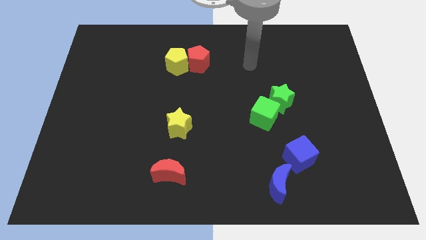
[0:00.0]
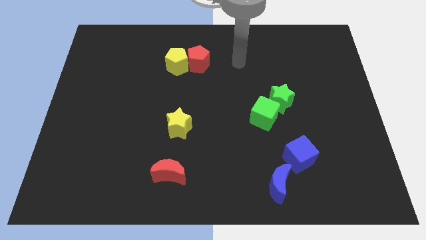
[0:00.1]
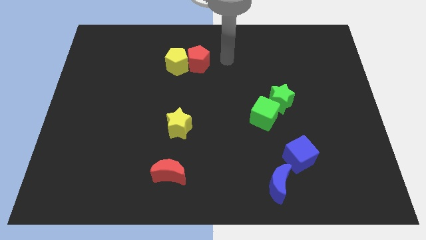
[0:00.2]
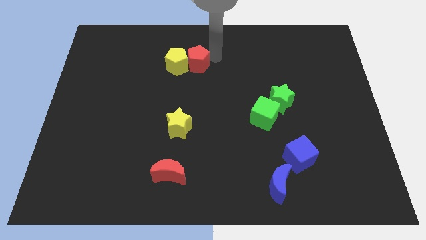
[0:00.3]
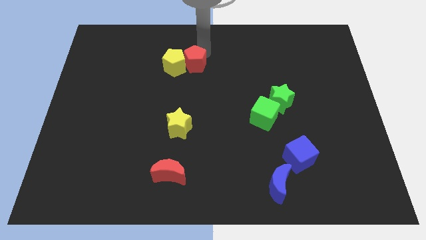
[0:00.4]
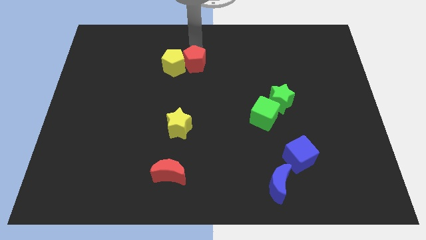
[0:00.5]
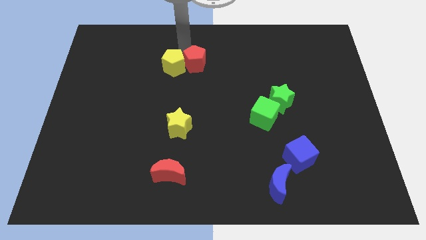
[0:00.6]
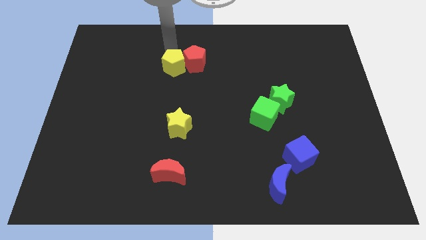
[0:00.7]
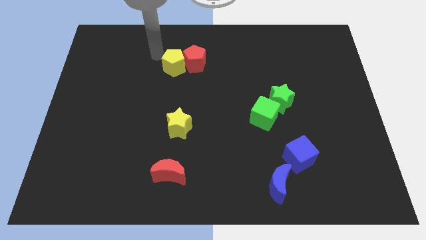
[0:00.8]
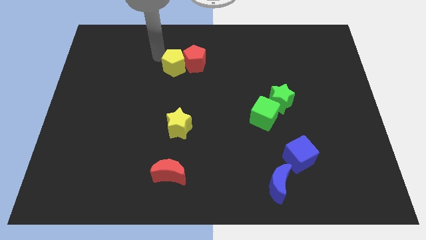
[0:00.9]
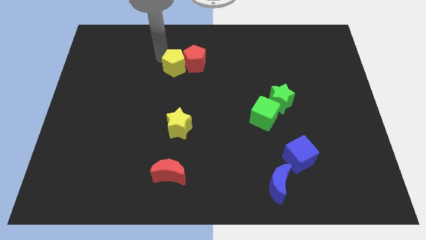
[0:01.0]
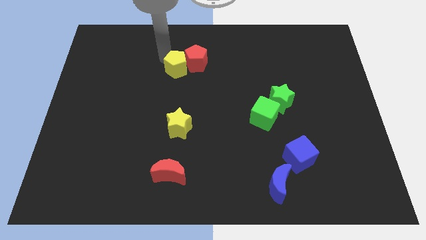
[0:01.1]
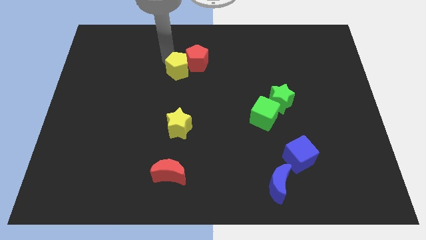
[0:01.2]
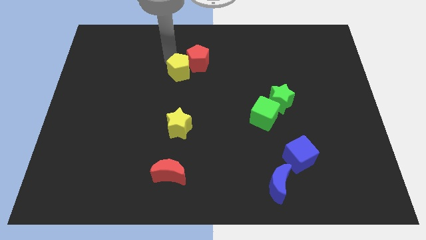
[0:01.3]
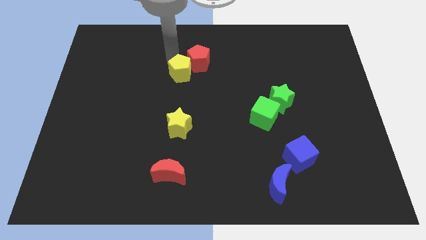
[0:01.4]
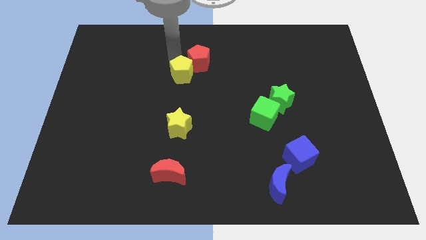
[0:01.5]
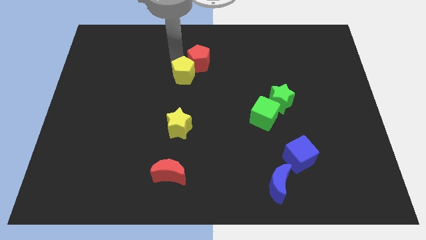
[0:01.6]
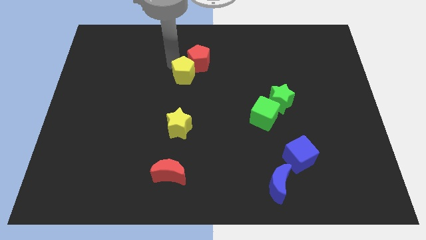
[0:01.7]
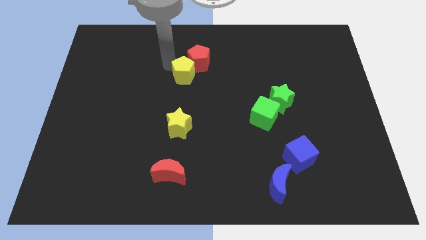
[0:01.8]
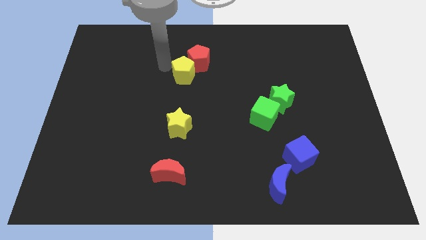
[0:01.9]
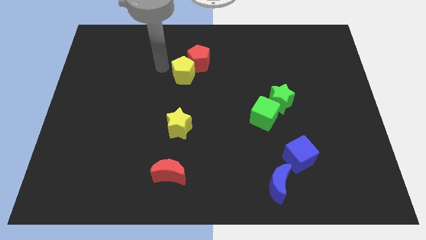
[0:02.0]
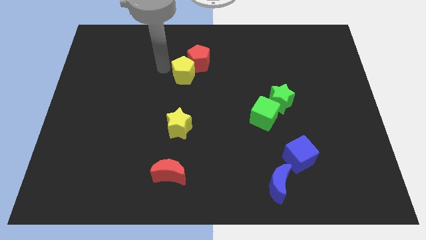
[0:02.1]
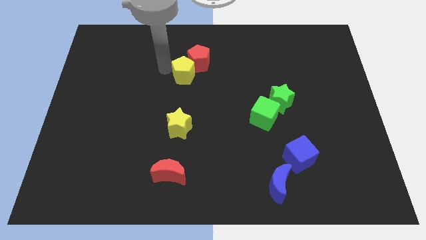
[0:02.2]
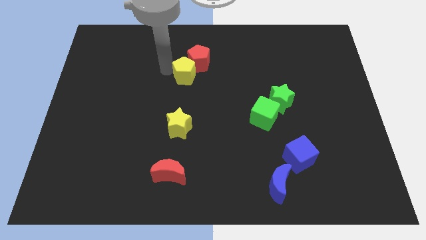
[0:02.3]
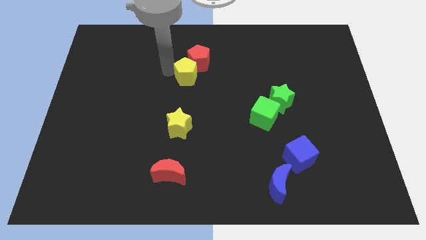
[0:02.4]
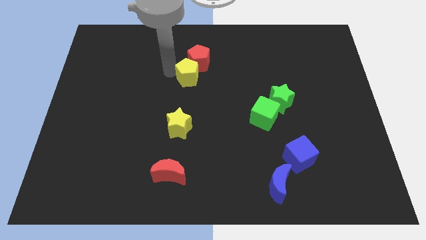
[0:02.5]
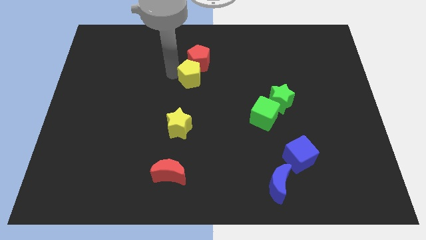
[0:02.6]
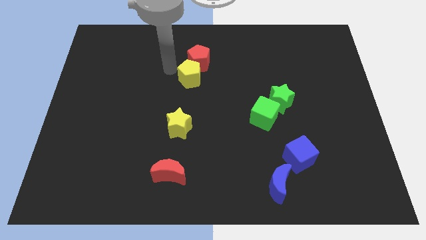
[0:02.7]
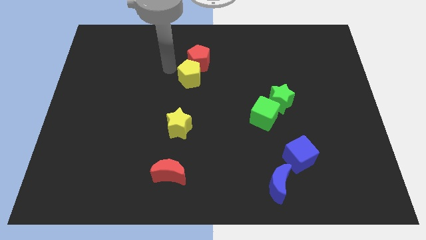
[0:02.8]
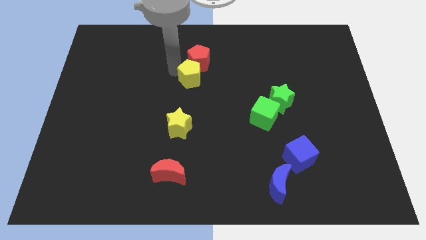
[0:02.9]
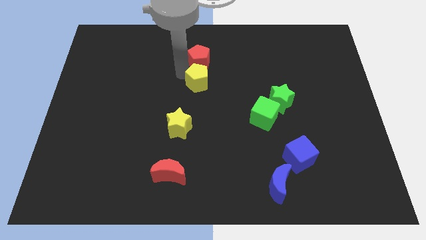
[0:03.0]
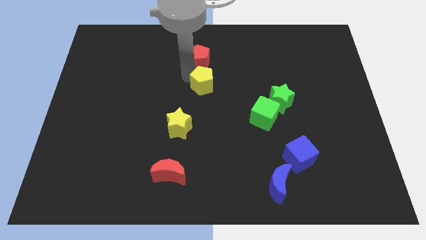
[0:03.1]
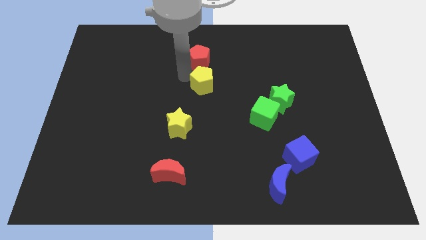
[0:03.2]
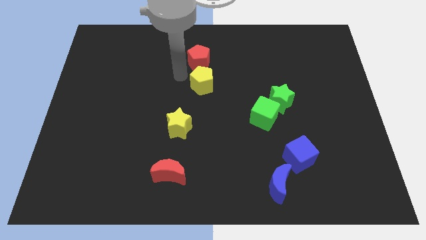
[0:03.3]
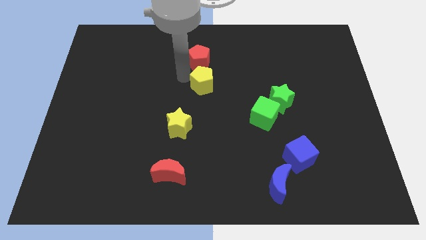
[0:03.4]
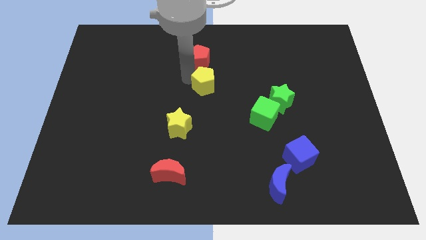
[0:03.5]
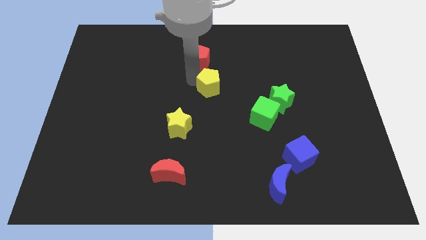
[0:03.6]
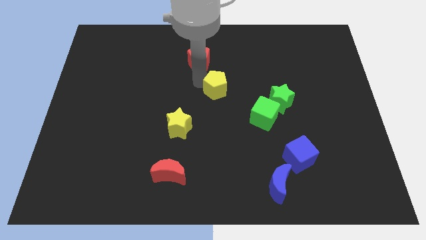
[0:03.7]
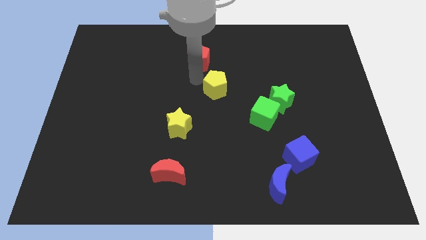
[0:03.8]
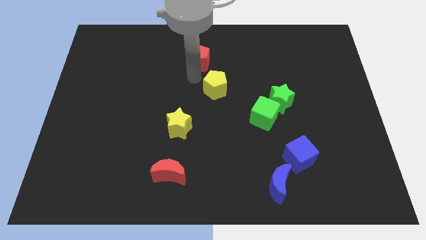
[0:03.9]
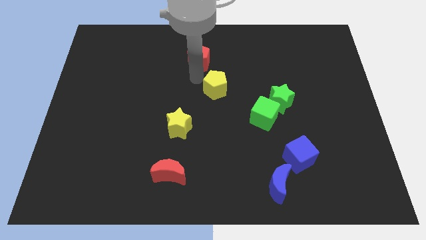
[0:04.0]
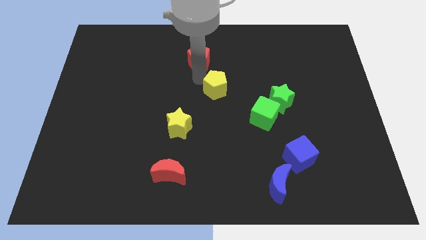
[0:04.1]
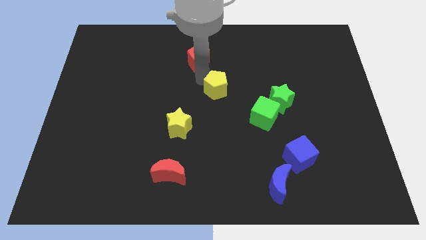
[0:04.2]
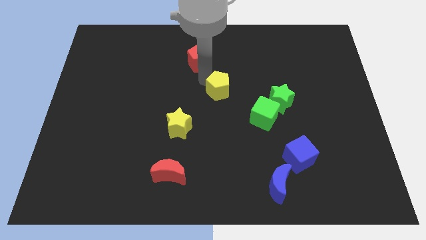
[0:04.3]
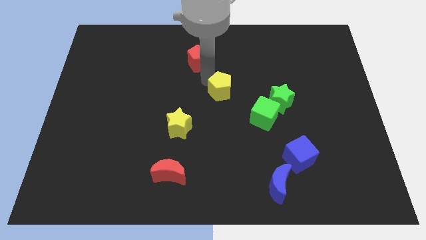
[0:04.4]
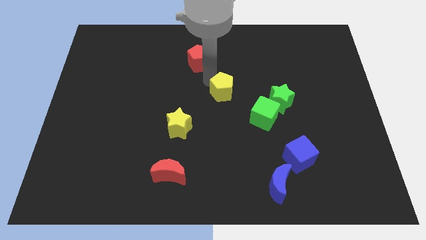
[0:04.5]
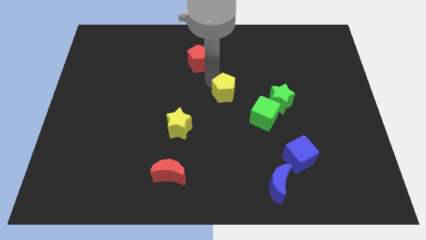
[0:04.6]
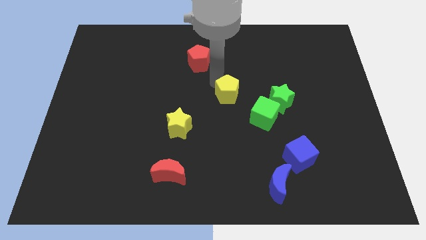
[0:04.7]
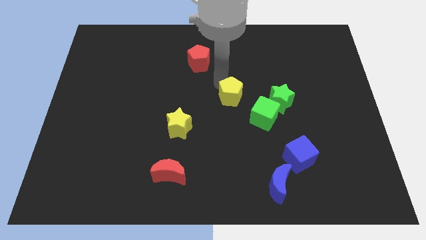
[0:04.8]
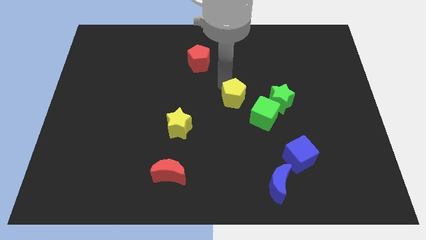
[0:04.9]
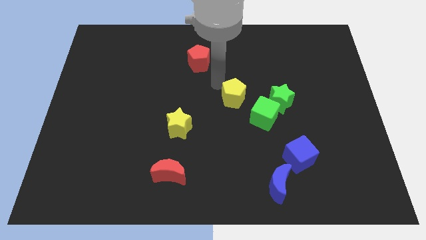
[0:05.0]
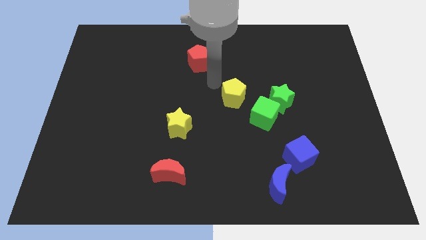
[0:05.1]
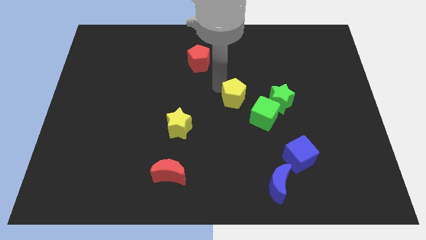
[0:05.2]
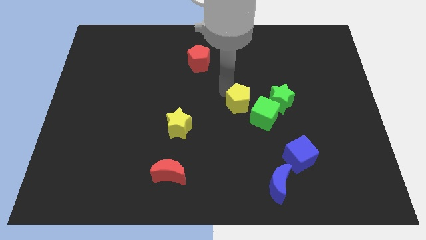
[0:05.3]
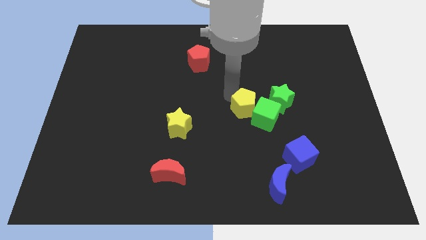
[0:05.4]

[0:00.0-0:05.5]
move the yellow pentagon to the green cube

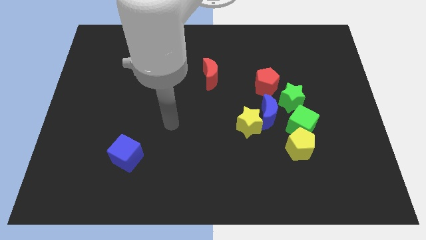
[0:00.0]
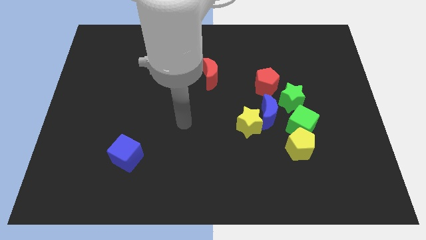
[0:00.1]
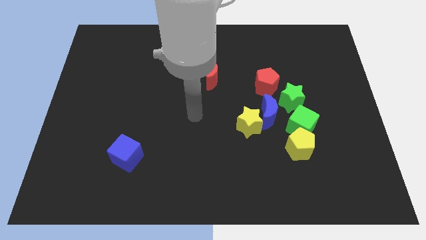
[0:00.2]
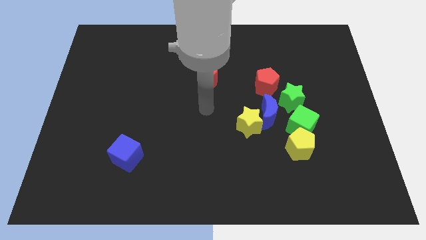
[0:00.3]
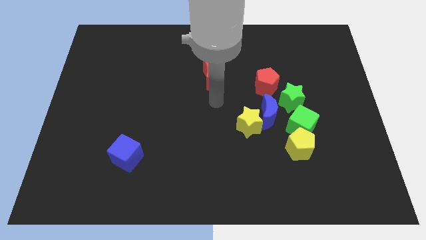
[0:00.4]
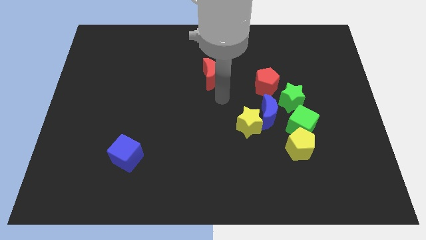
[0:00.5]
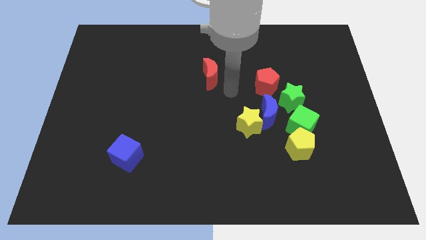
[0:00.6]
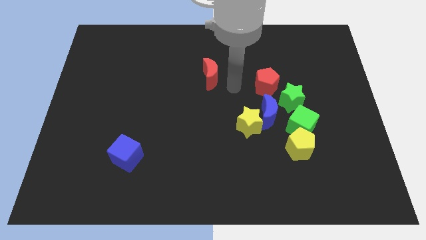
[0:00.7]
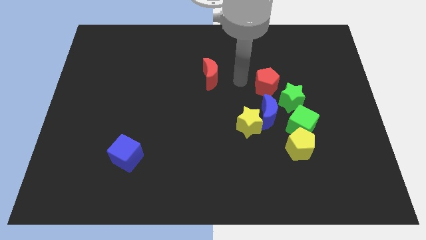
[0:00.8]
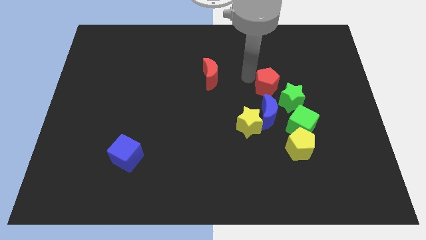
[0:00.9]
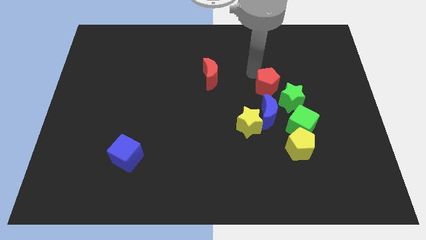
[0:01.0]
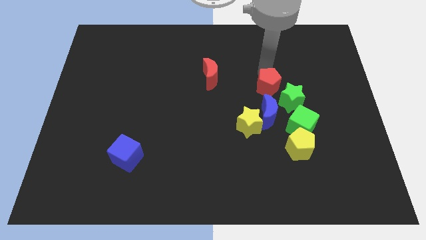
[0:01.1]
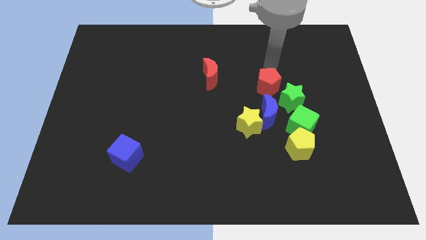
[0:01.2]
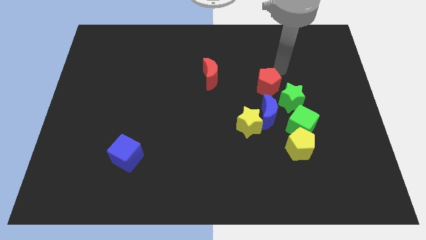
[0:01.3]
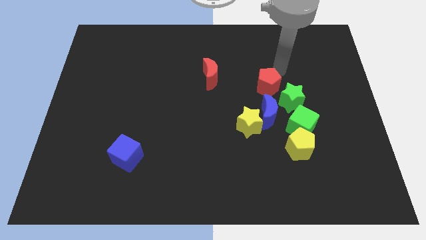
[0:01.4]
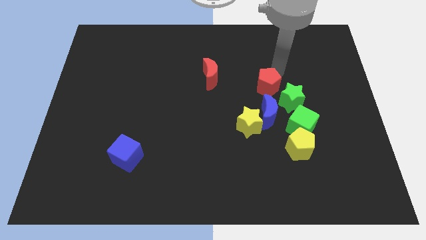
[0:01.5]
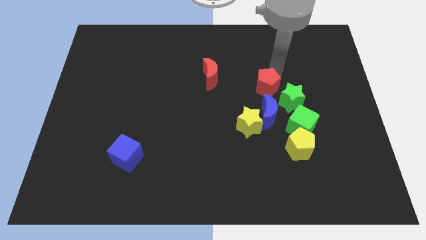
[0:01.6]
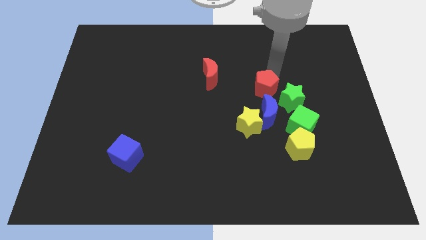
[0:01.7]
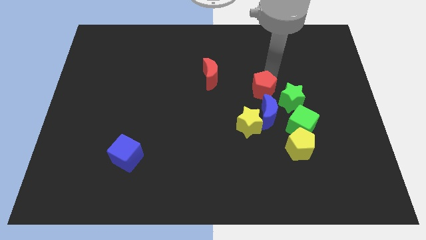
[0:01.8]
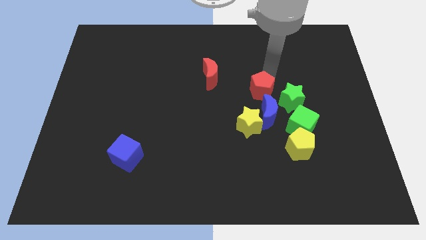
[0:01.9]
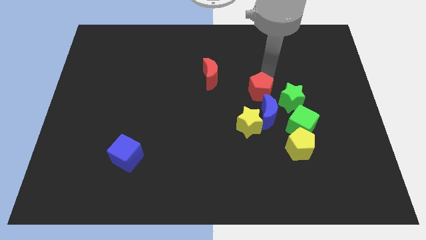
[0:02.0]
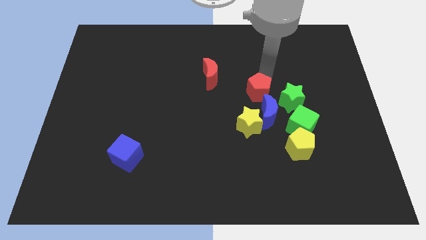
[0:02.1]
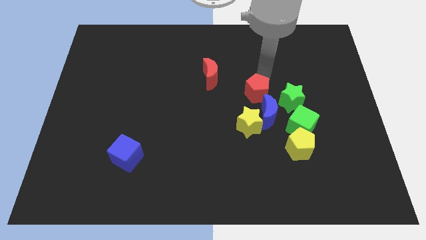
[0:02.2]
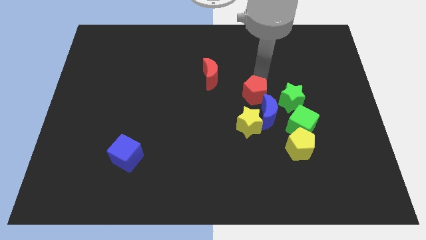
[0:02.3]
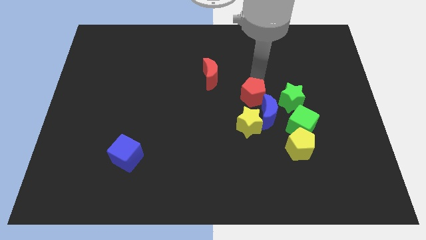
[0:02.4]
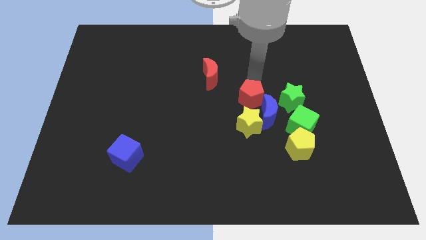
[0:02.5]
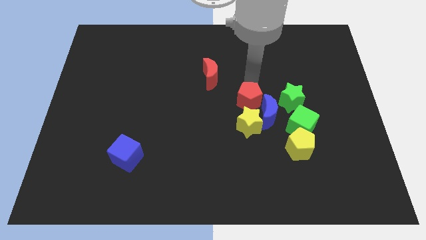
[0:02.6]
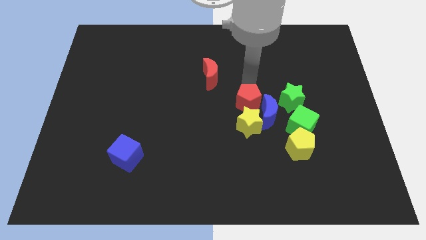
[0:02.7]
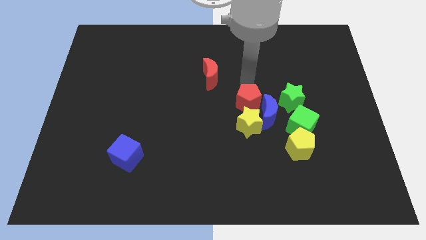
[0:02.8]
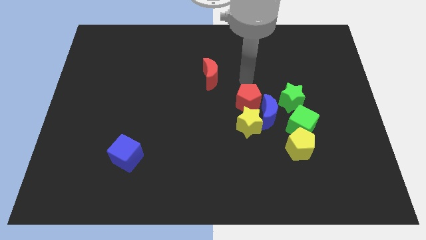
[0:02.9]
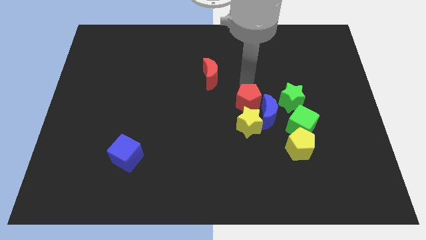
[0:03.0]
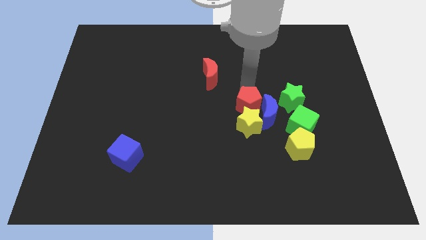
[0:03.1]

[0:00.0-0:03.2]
move the red pentagon towards the yellow star
